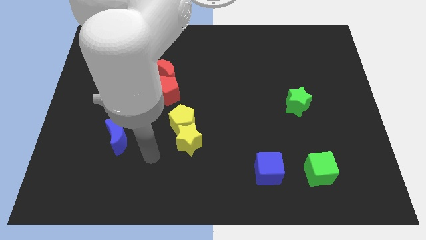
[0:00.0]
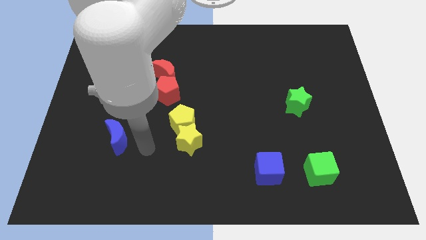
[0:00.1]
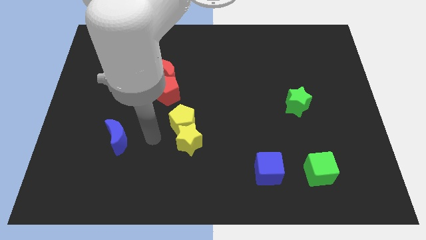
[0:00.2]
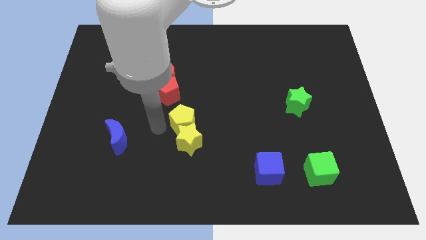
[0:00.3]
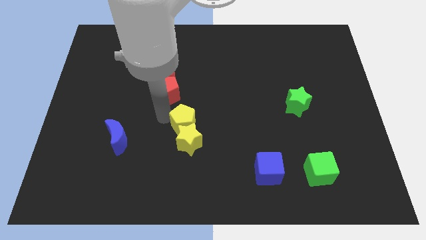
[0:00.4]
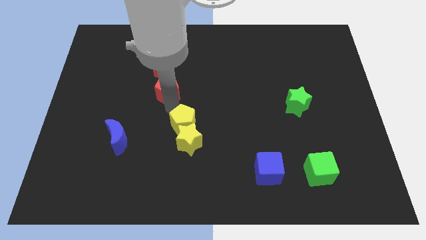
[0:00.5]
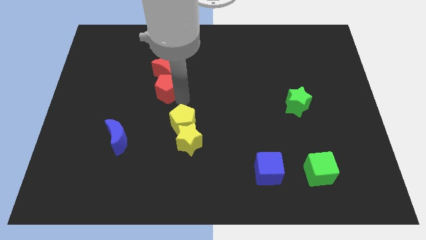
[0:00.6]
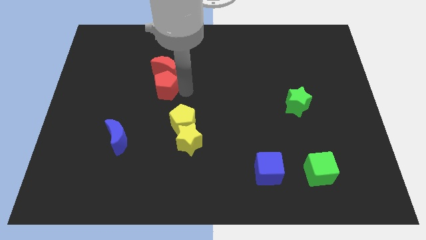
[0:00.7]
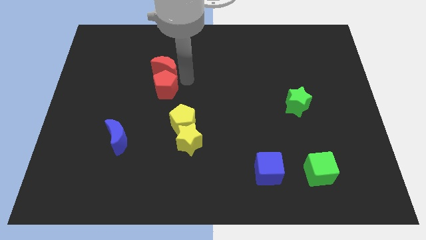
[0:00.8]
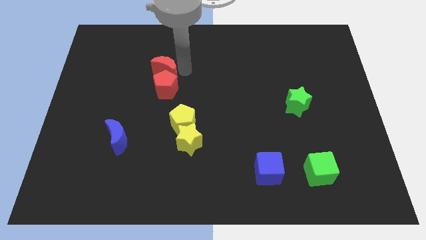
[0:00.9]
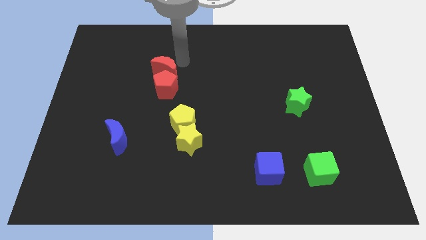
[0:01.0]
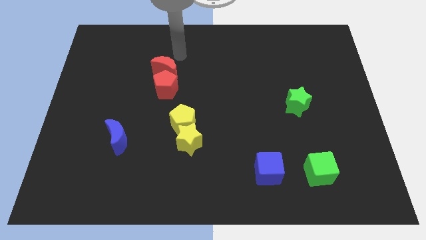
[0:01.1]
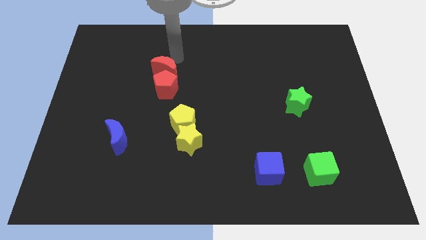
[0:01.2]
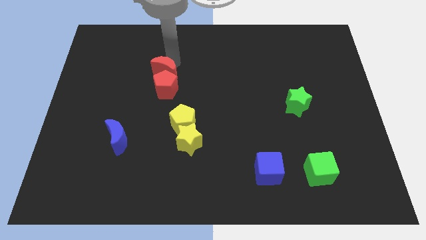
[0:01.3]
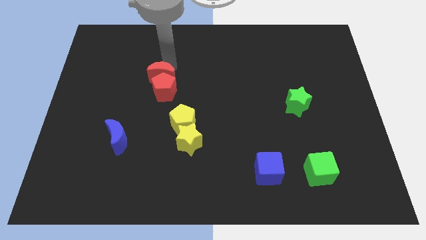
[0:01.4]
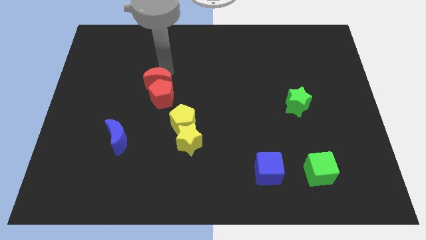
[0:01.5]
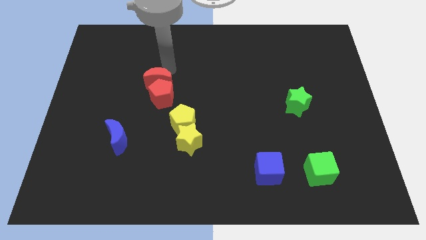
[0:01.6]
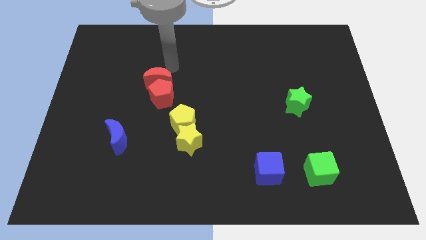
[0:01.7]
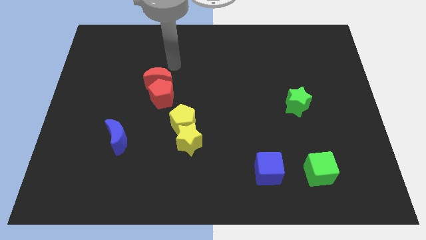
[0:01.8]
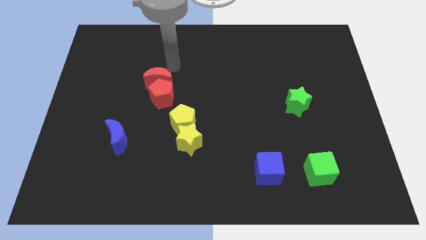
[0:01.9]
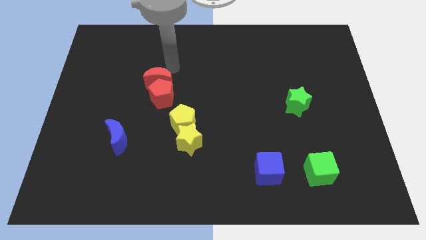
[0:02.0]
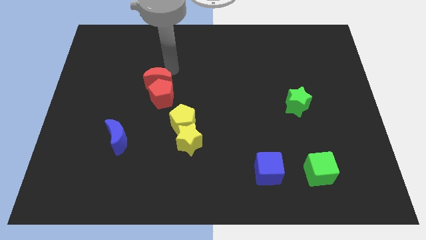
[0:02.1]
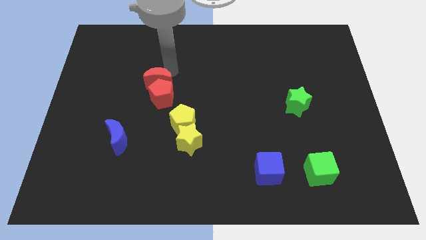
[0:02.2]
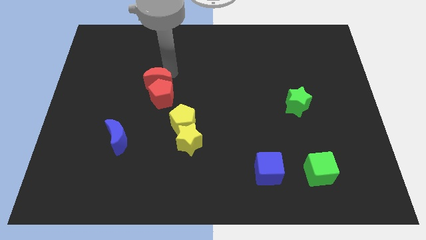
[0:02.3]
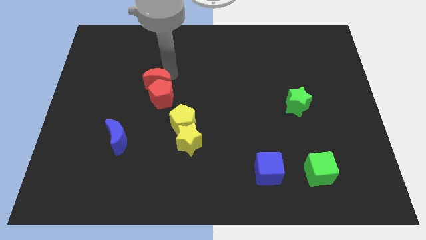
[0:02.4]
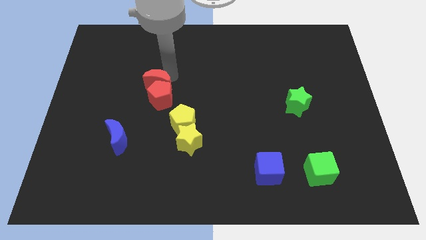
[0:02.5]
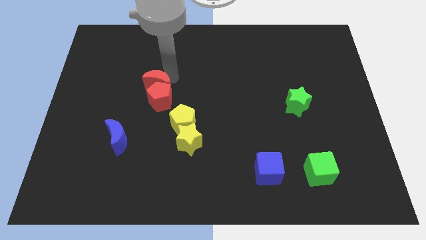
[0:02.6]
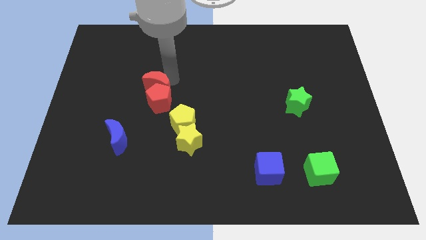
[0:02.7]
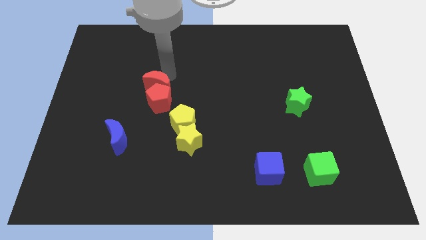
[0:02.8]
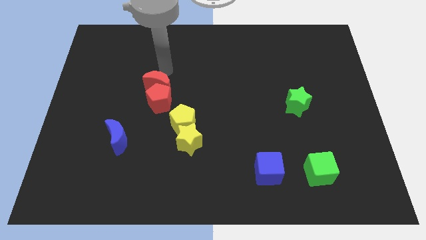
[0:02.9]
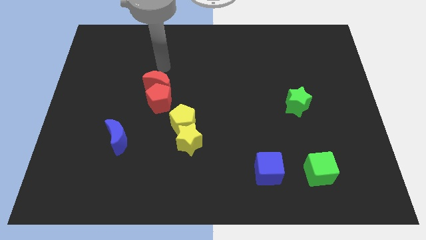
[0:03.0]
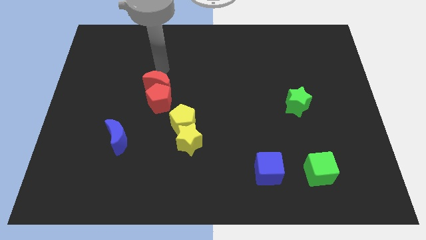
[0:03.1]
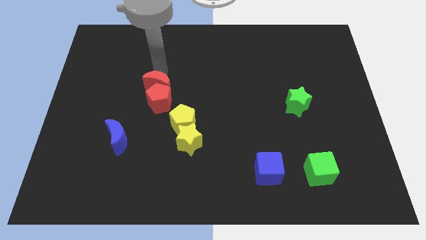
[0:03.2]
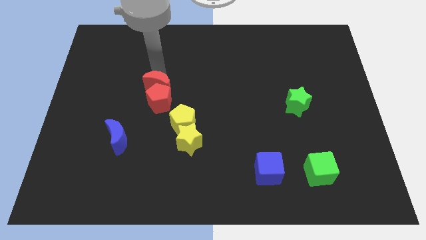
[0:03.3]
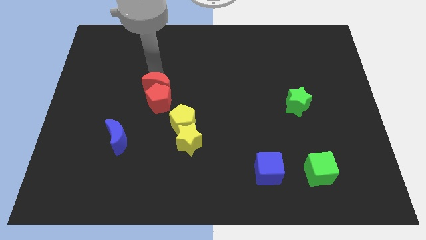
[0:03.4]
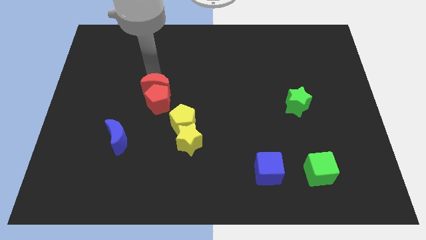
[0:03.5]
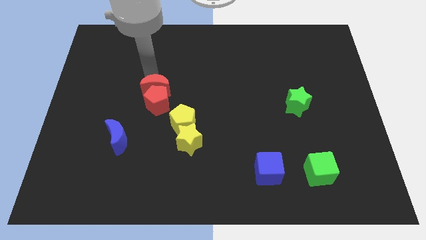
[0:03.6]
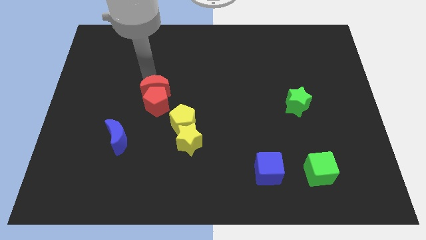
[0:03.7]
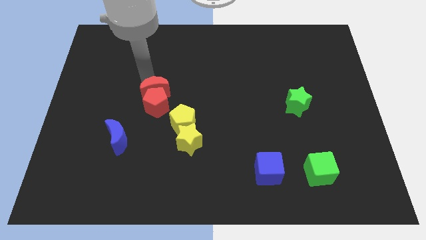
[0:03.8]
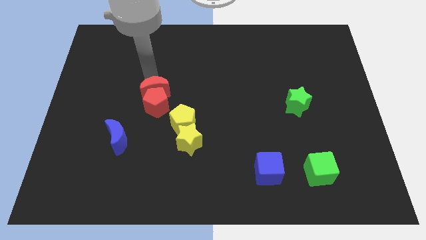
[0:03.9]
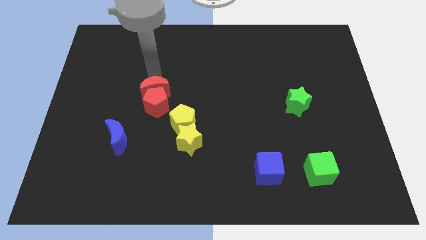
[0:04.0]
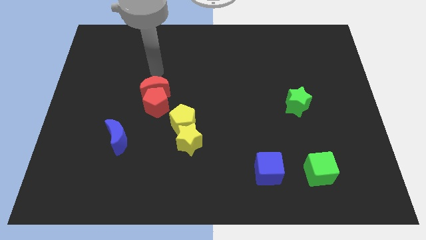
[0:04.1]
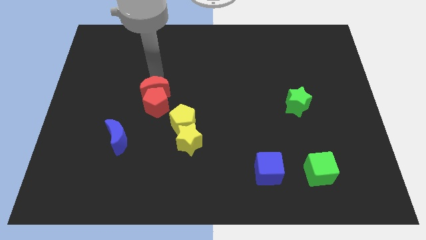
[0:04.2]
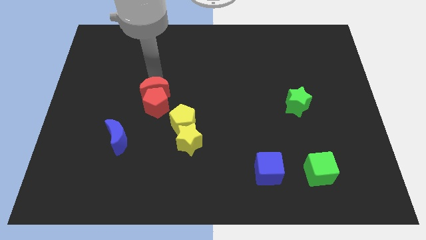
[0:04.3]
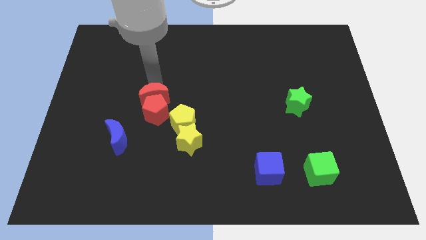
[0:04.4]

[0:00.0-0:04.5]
slightly push the red moon down

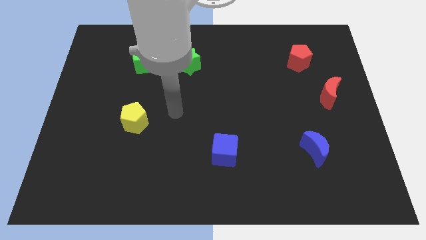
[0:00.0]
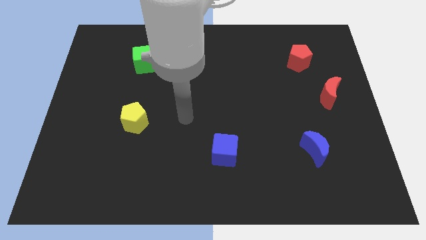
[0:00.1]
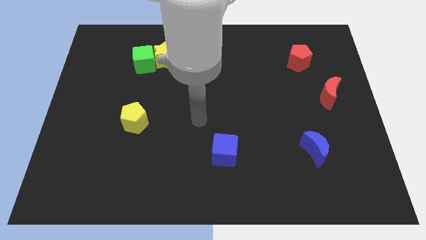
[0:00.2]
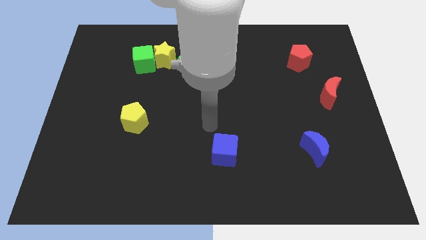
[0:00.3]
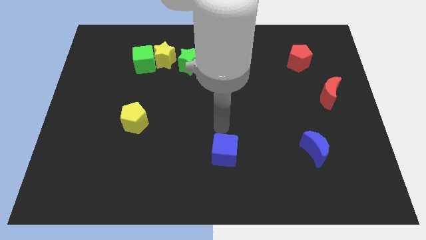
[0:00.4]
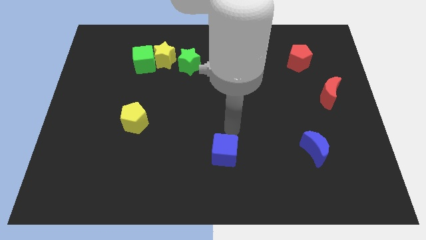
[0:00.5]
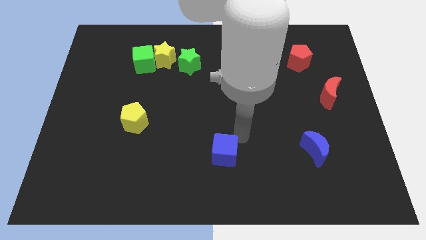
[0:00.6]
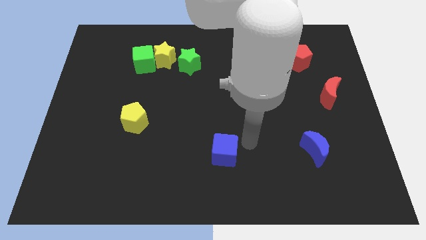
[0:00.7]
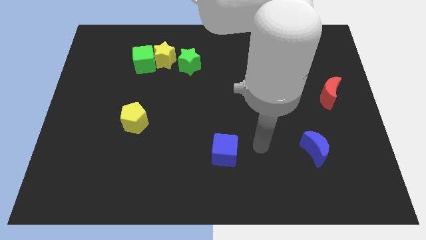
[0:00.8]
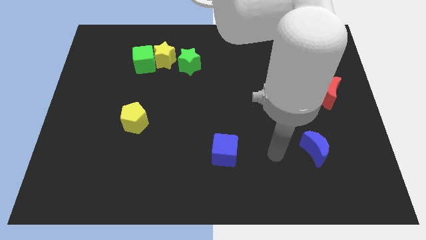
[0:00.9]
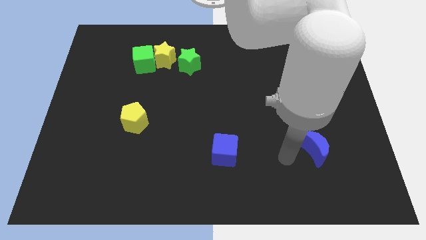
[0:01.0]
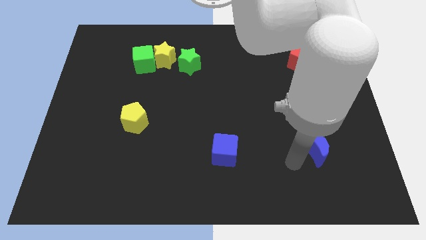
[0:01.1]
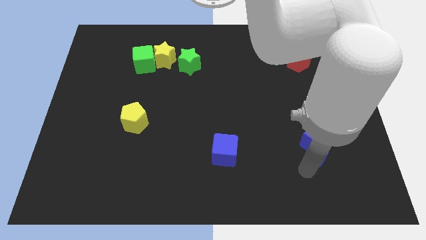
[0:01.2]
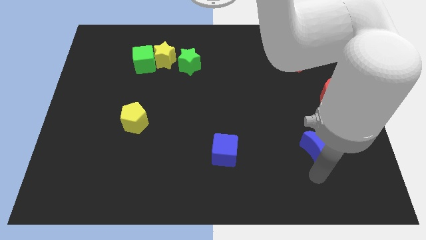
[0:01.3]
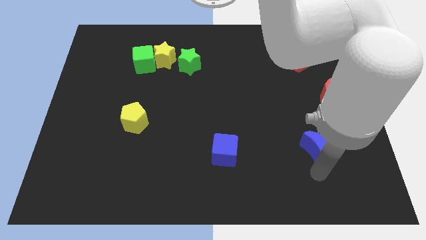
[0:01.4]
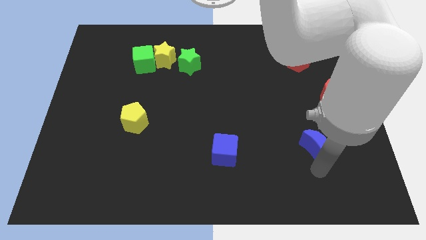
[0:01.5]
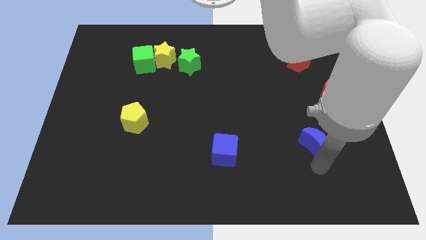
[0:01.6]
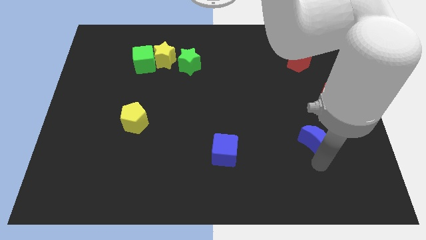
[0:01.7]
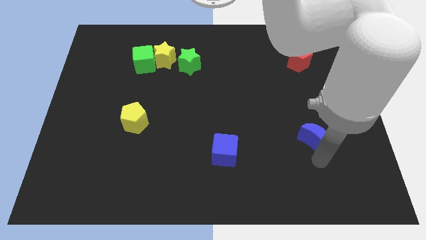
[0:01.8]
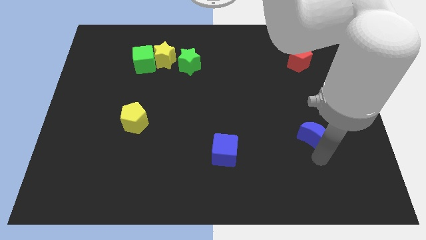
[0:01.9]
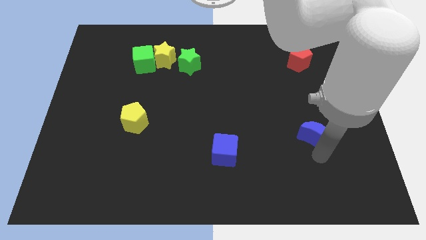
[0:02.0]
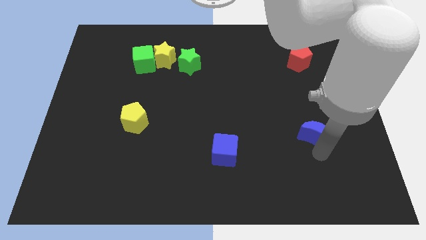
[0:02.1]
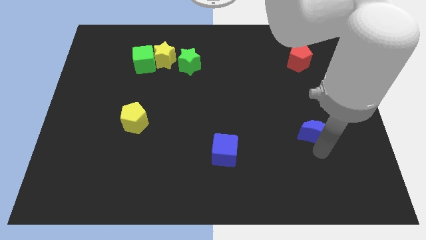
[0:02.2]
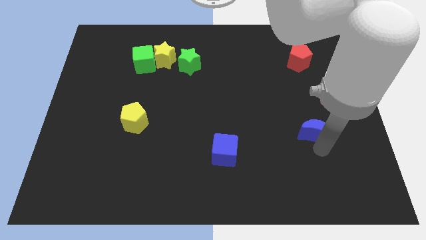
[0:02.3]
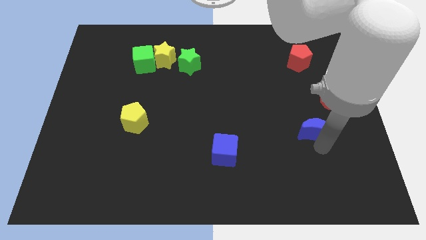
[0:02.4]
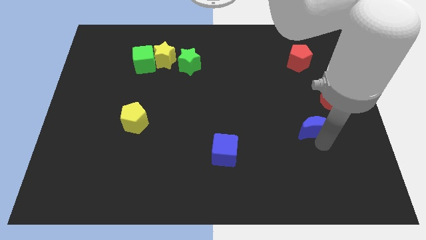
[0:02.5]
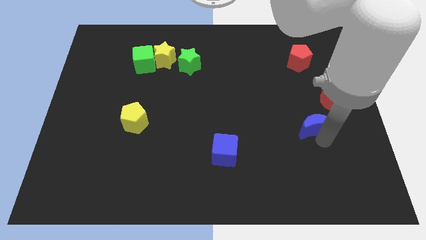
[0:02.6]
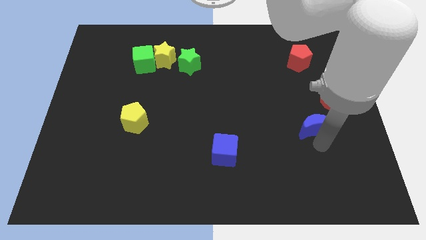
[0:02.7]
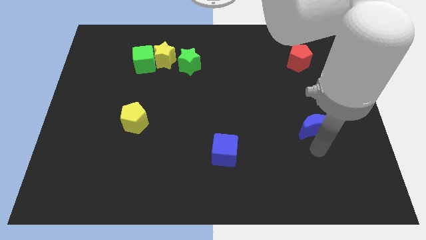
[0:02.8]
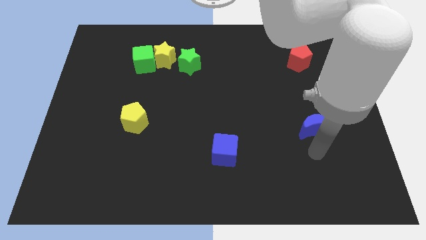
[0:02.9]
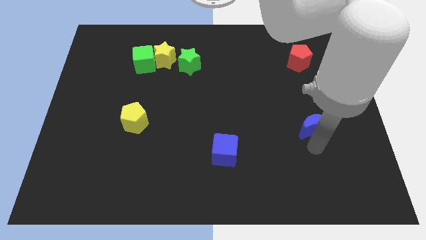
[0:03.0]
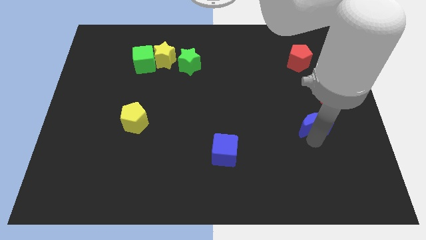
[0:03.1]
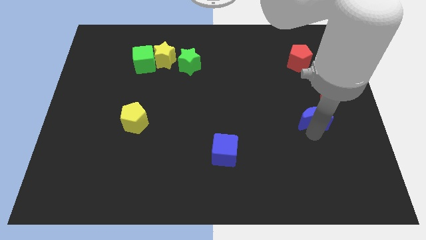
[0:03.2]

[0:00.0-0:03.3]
slightly move the blue moon upwards

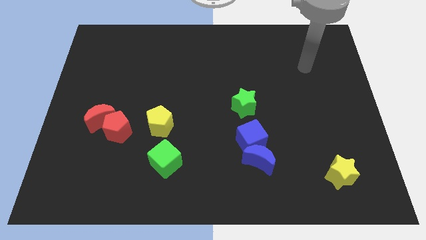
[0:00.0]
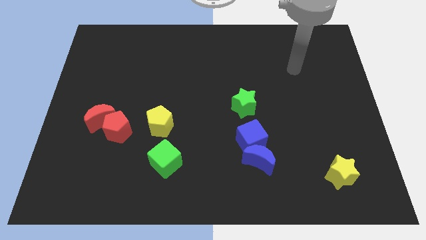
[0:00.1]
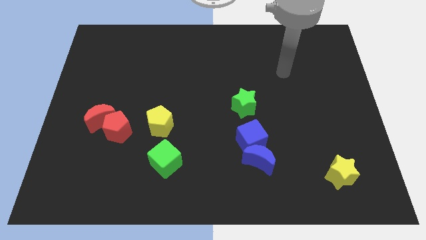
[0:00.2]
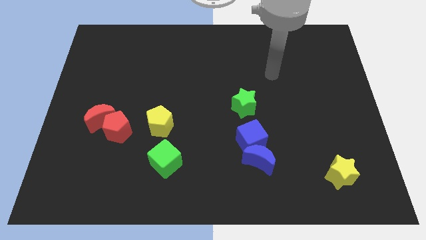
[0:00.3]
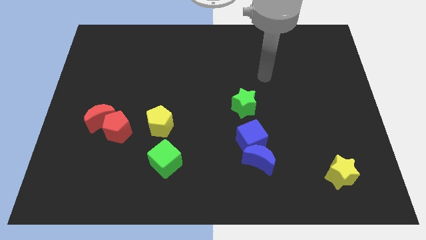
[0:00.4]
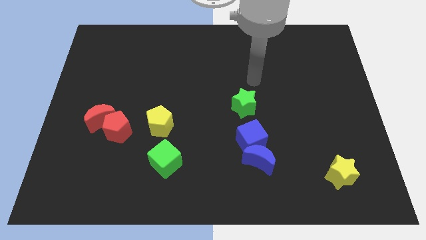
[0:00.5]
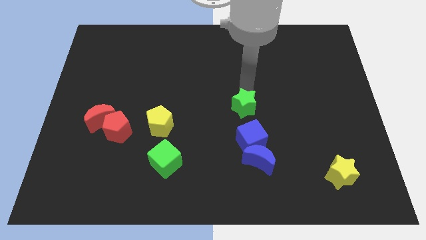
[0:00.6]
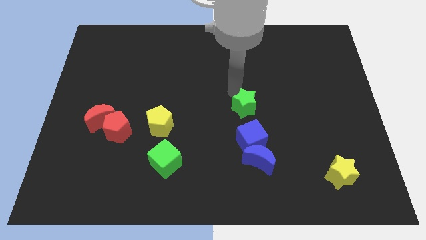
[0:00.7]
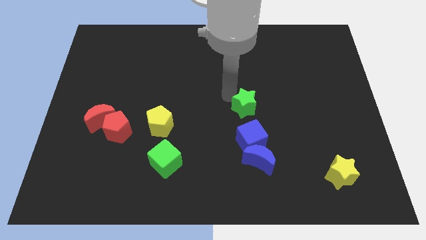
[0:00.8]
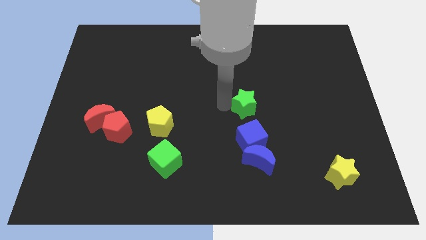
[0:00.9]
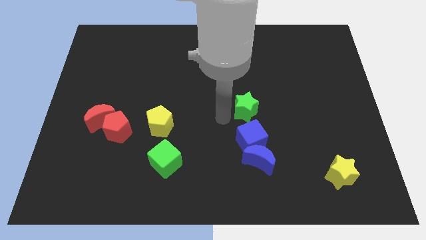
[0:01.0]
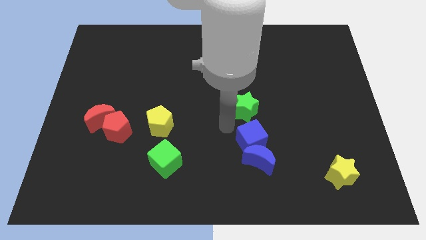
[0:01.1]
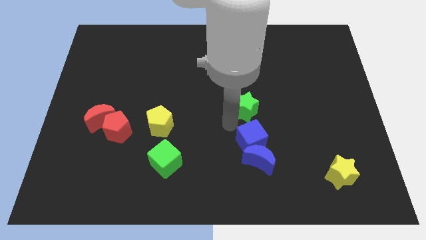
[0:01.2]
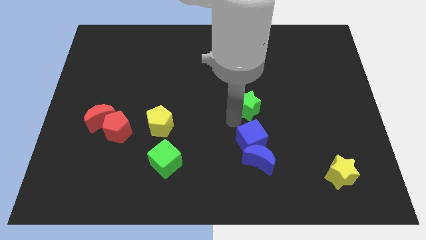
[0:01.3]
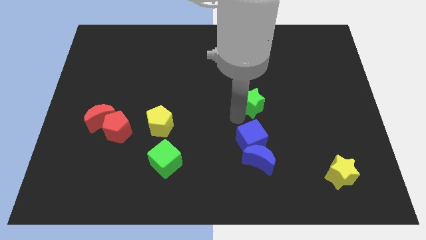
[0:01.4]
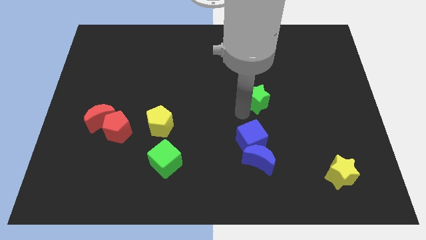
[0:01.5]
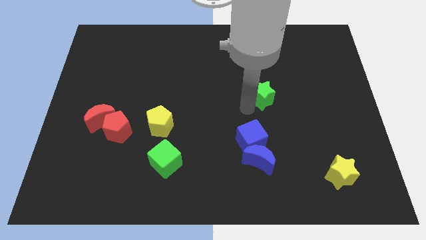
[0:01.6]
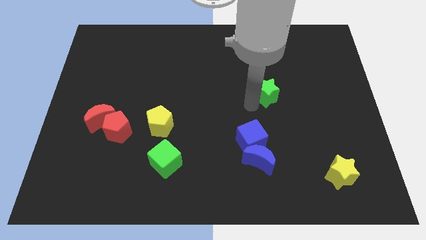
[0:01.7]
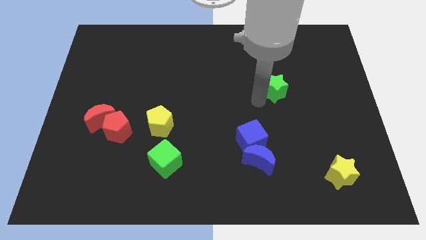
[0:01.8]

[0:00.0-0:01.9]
push the green star a little bit up and to the right diagonally
